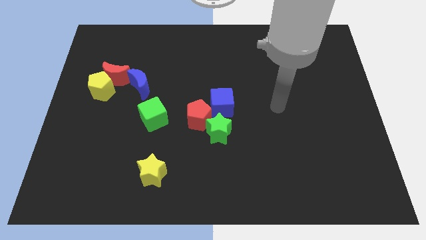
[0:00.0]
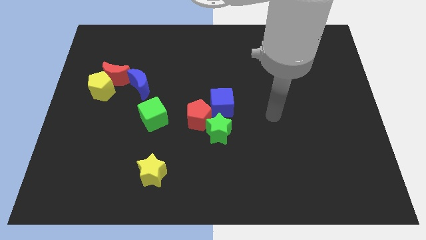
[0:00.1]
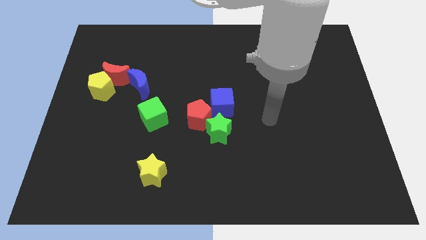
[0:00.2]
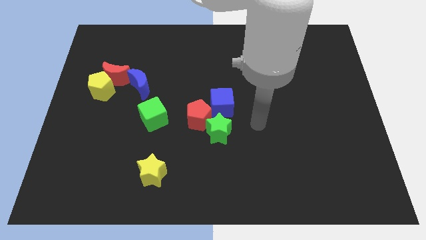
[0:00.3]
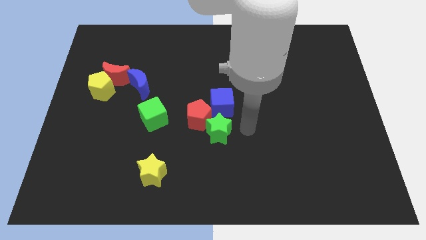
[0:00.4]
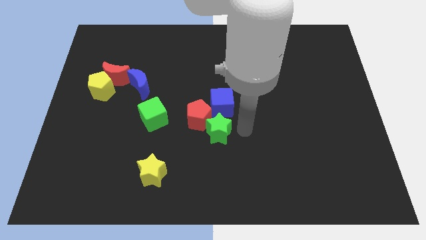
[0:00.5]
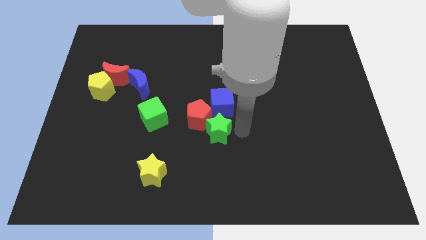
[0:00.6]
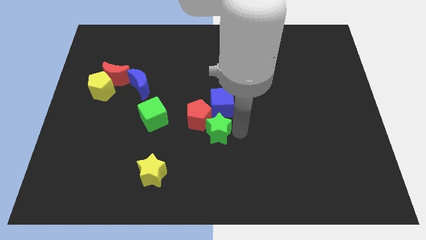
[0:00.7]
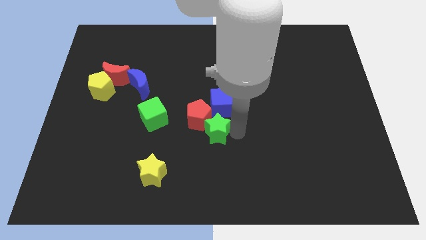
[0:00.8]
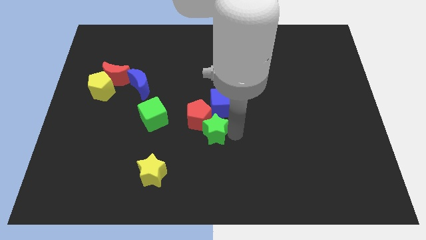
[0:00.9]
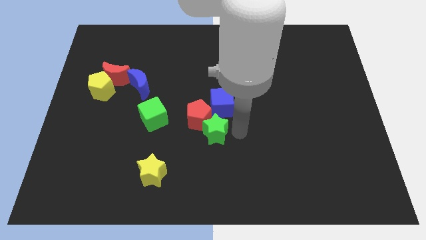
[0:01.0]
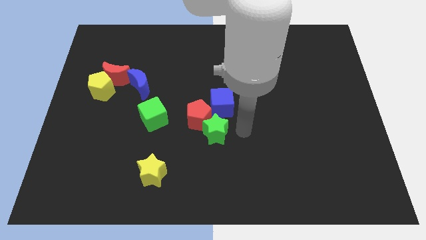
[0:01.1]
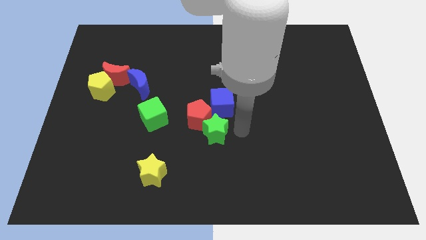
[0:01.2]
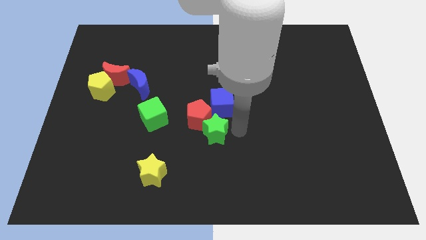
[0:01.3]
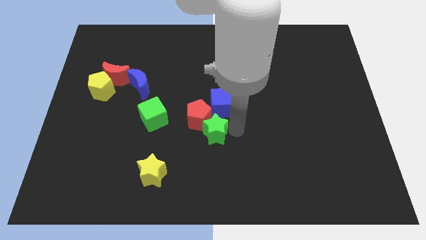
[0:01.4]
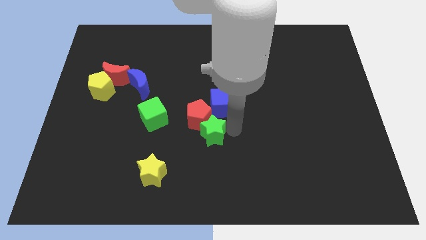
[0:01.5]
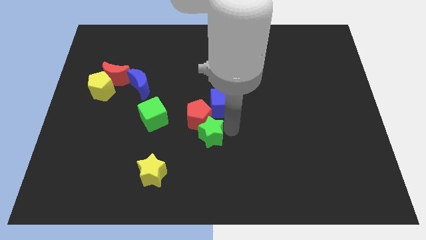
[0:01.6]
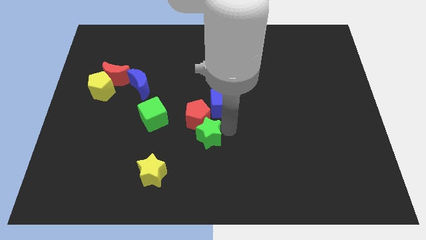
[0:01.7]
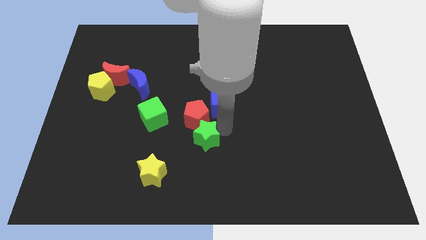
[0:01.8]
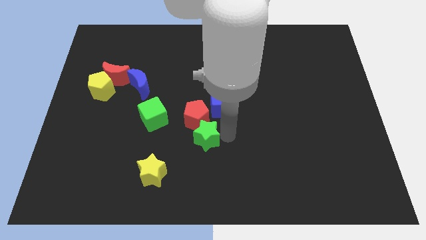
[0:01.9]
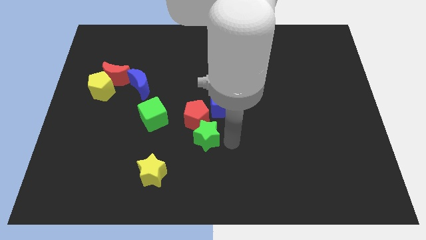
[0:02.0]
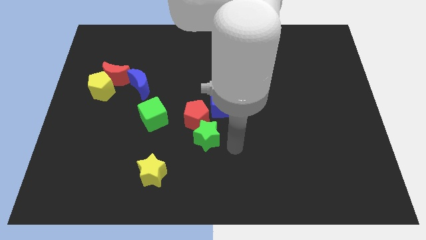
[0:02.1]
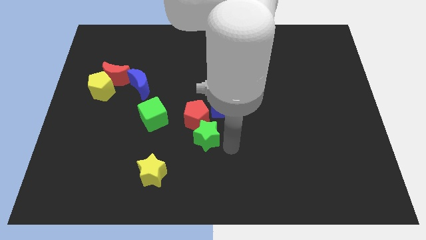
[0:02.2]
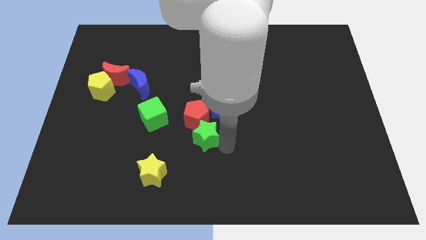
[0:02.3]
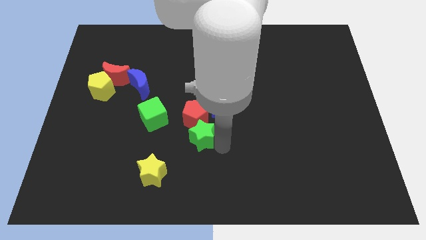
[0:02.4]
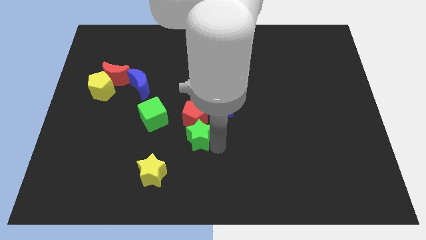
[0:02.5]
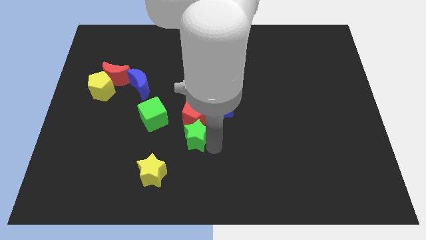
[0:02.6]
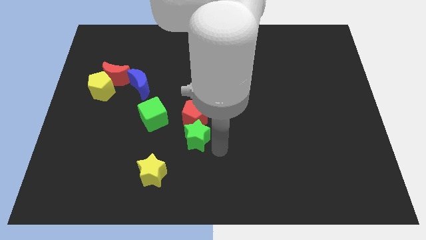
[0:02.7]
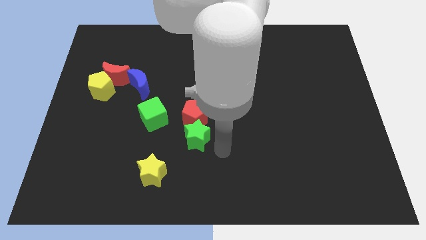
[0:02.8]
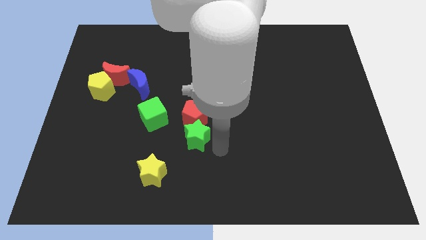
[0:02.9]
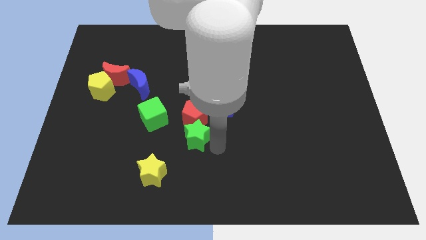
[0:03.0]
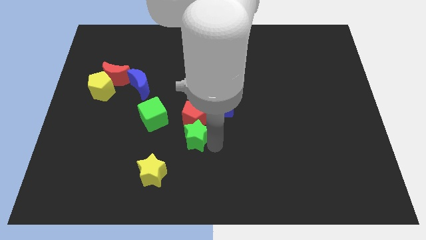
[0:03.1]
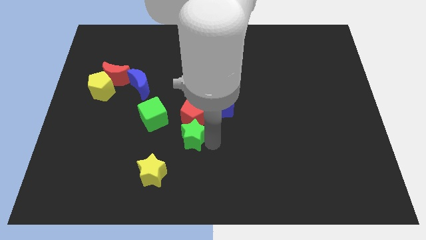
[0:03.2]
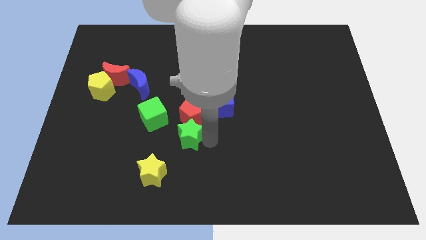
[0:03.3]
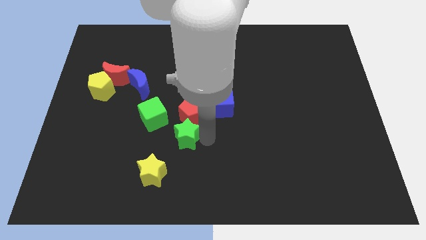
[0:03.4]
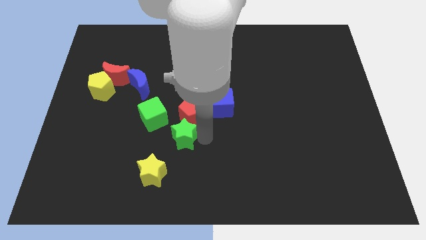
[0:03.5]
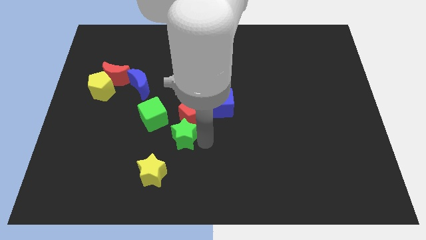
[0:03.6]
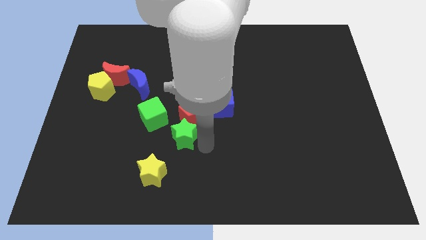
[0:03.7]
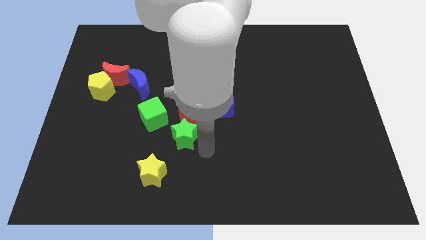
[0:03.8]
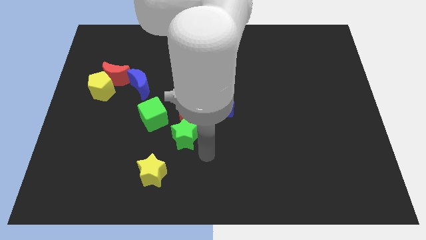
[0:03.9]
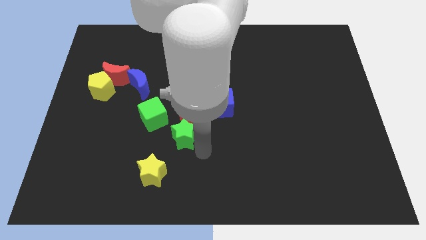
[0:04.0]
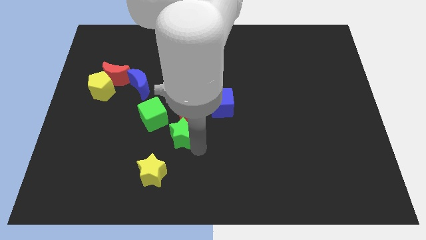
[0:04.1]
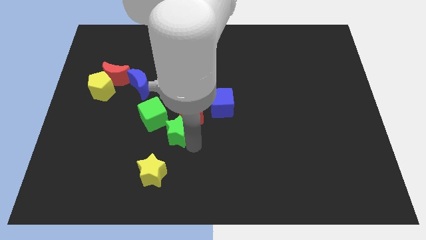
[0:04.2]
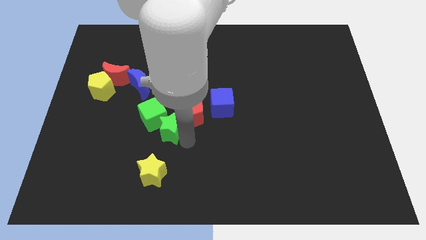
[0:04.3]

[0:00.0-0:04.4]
slide the green star next to the green cube

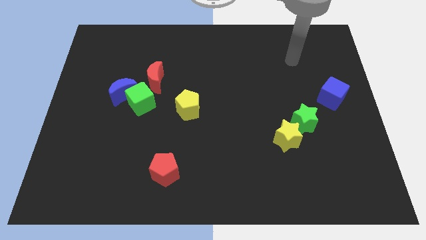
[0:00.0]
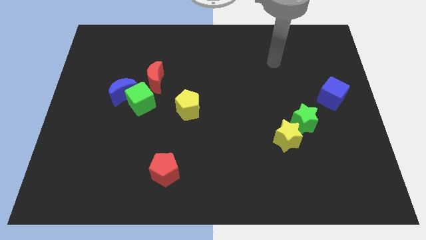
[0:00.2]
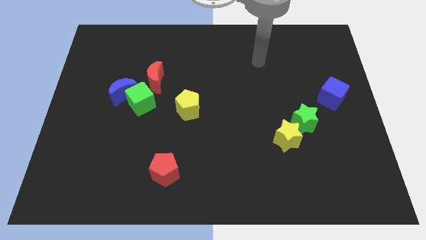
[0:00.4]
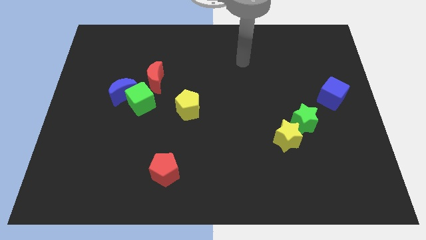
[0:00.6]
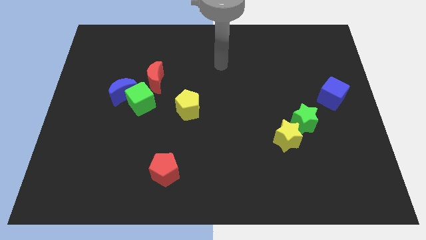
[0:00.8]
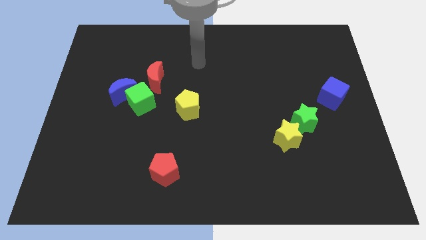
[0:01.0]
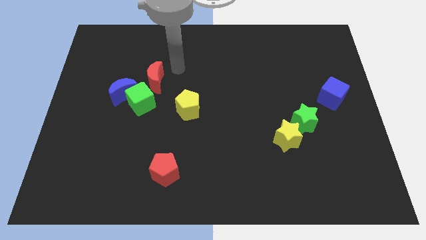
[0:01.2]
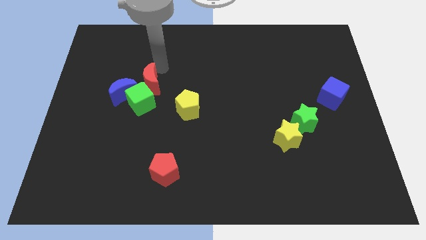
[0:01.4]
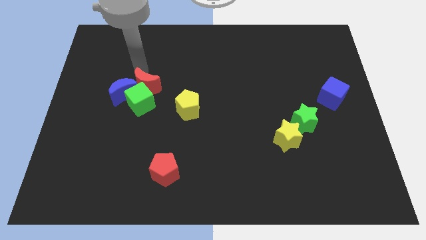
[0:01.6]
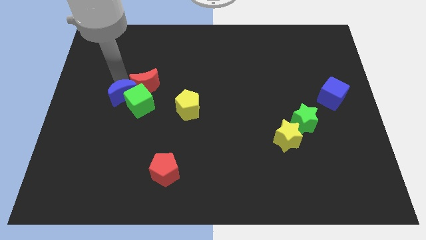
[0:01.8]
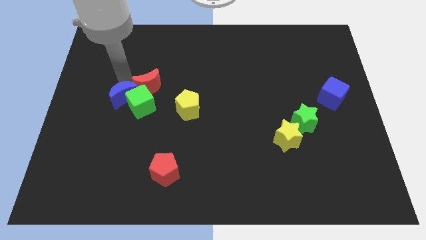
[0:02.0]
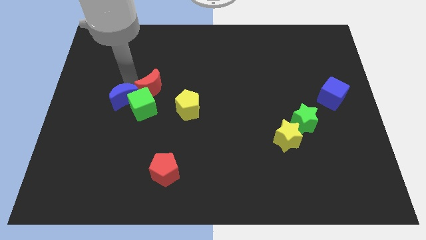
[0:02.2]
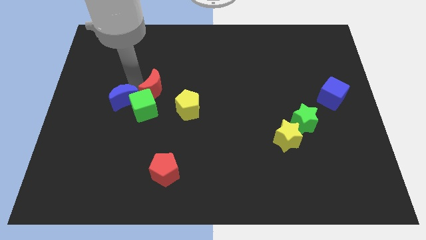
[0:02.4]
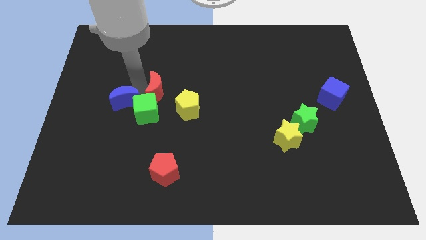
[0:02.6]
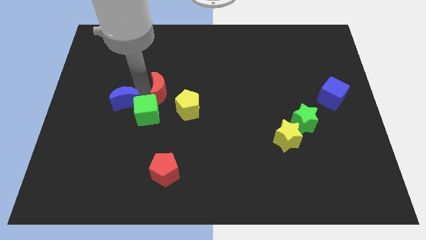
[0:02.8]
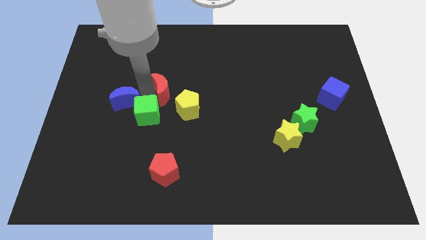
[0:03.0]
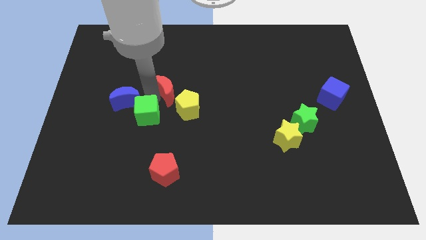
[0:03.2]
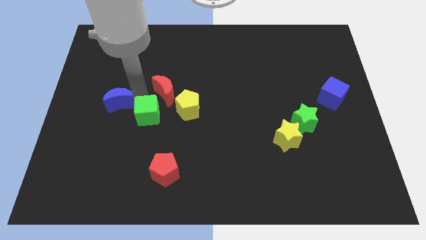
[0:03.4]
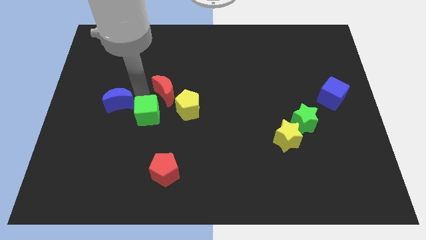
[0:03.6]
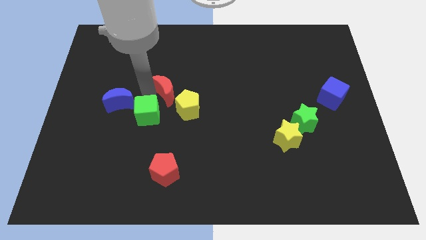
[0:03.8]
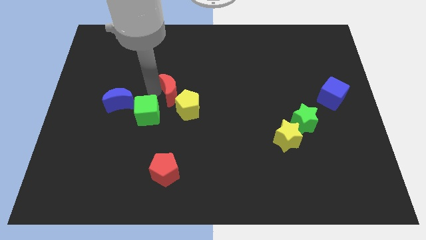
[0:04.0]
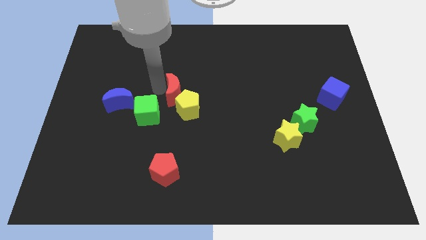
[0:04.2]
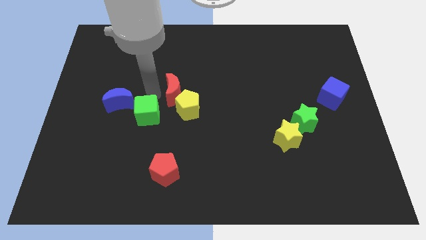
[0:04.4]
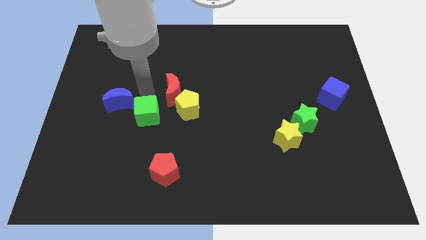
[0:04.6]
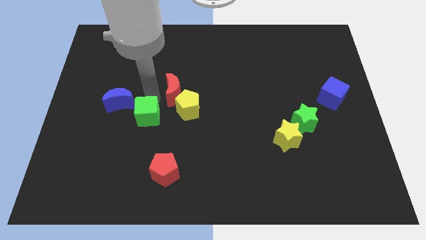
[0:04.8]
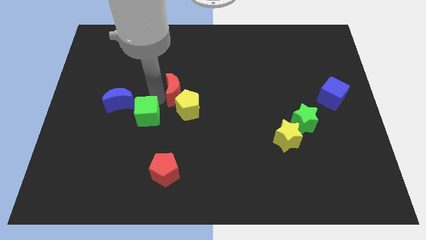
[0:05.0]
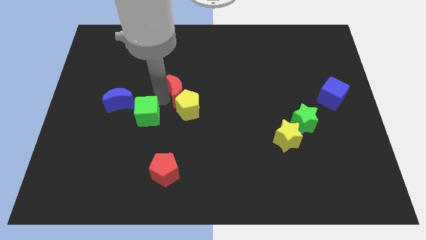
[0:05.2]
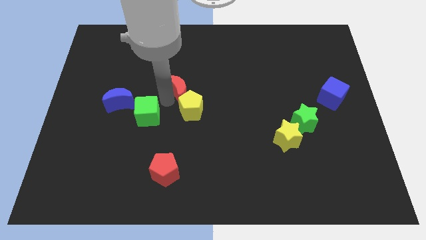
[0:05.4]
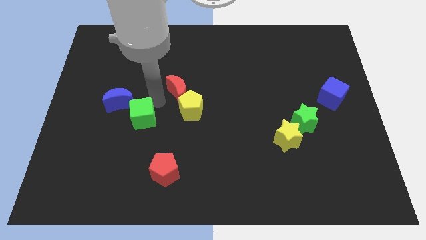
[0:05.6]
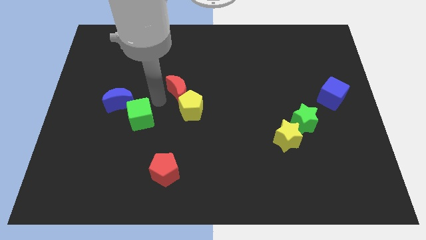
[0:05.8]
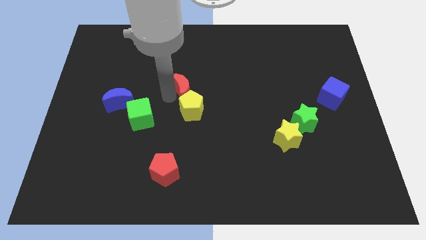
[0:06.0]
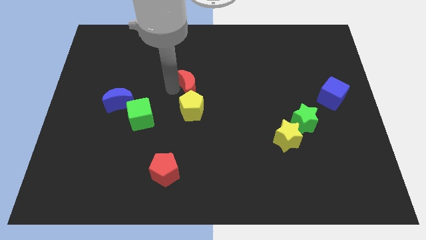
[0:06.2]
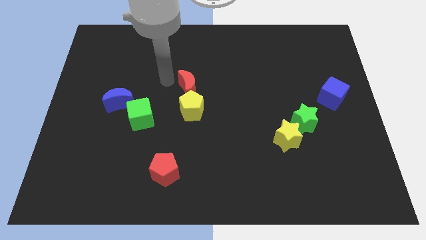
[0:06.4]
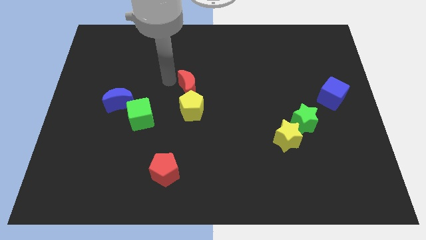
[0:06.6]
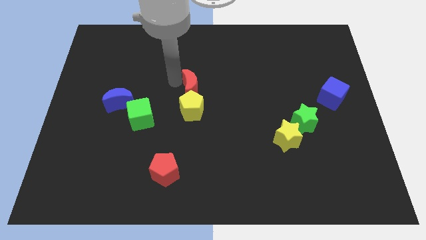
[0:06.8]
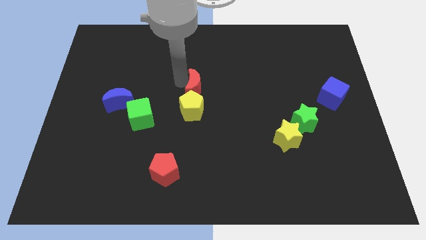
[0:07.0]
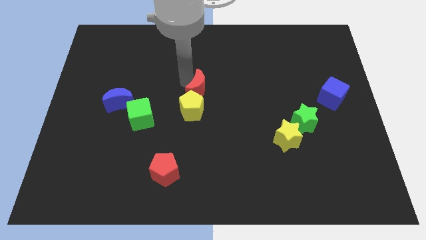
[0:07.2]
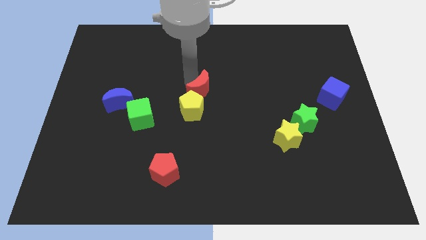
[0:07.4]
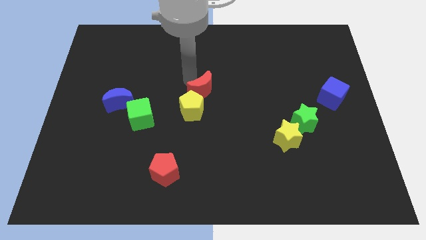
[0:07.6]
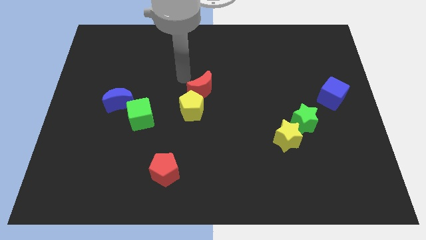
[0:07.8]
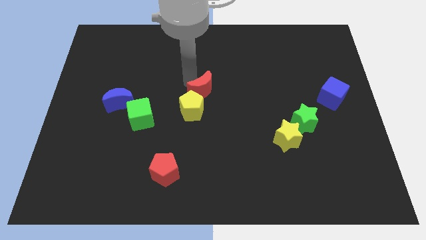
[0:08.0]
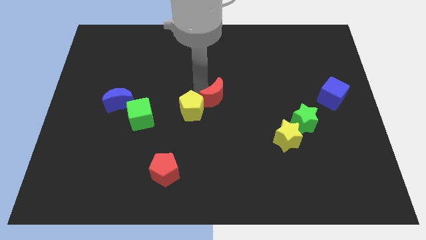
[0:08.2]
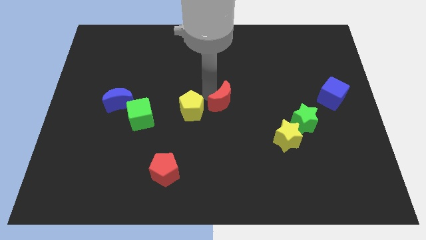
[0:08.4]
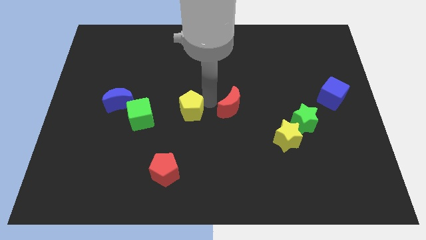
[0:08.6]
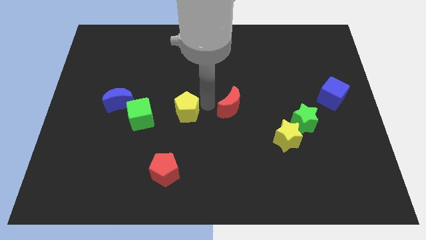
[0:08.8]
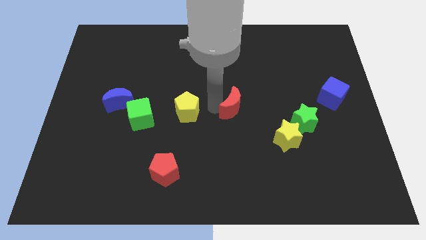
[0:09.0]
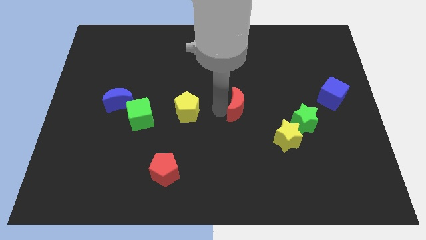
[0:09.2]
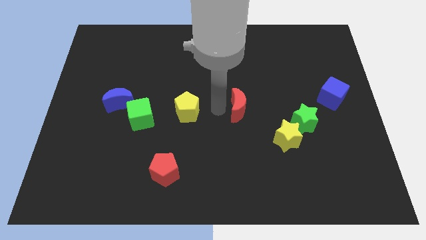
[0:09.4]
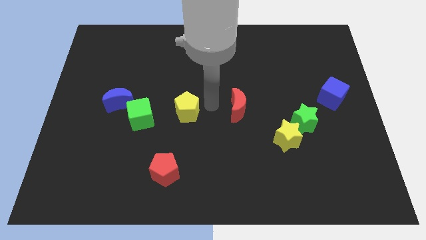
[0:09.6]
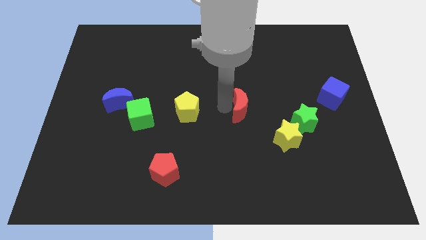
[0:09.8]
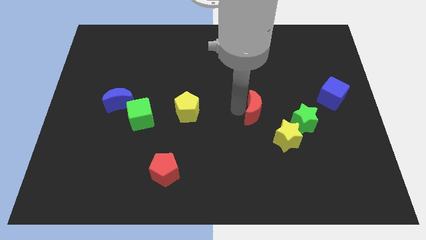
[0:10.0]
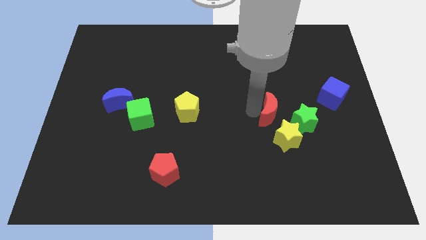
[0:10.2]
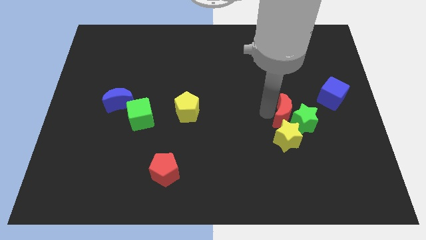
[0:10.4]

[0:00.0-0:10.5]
move the red moon next to the green star
